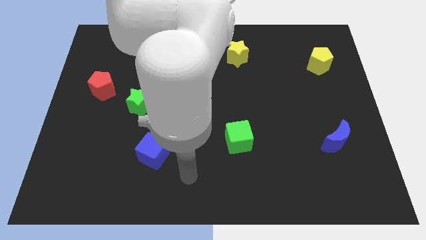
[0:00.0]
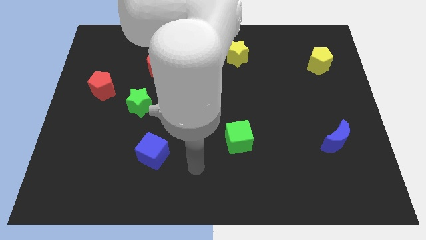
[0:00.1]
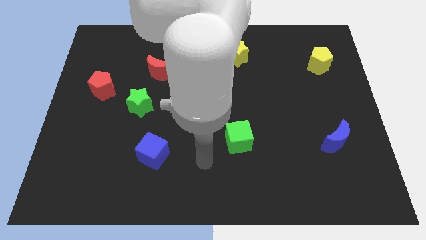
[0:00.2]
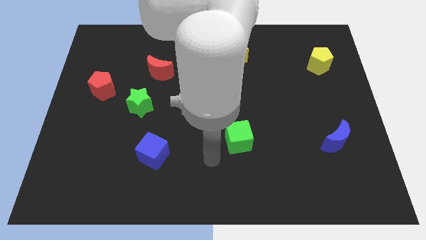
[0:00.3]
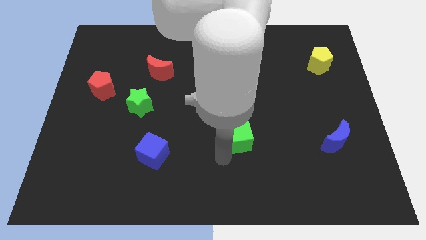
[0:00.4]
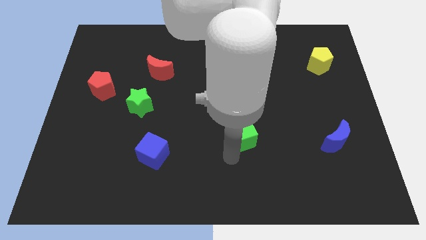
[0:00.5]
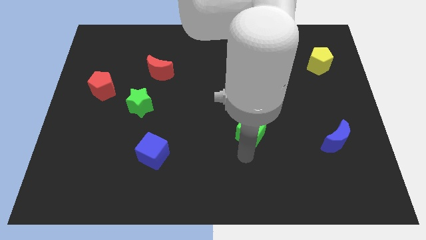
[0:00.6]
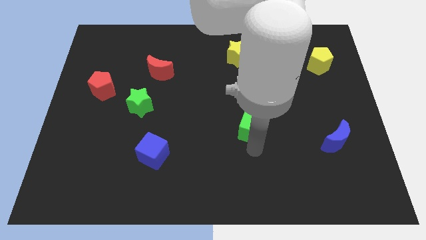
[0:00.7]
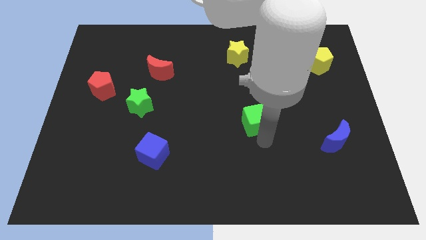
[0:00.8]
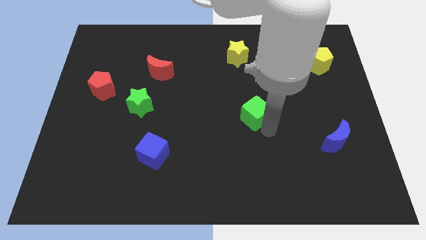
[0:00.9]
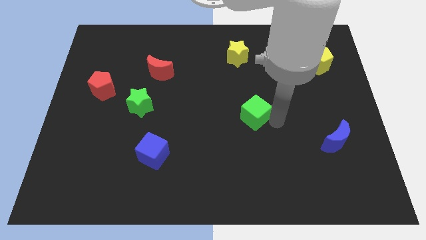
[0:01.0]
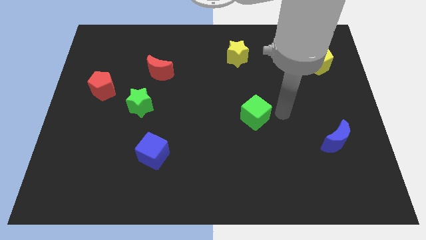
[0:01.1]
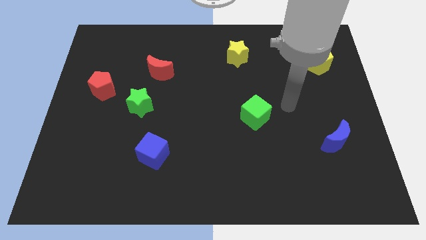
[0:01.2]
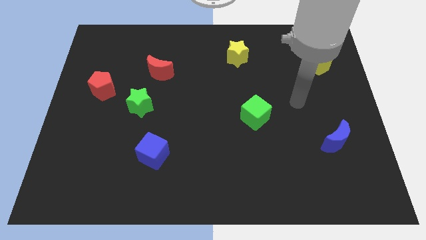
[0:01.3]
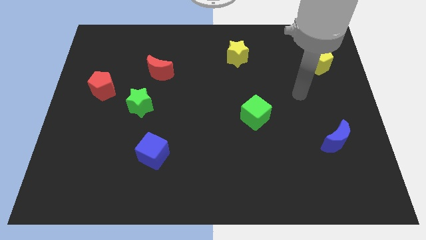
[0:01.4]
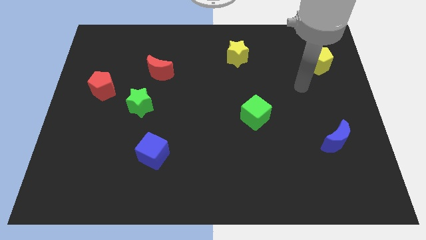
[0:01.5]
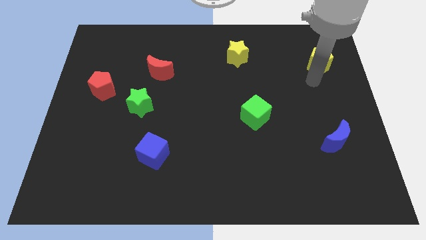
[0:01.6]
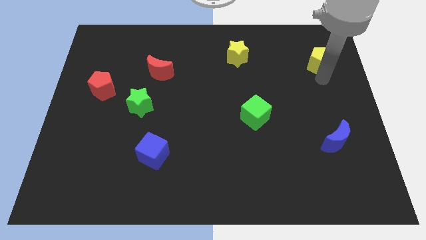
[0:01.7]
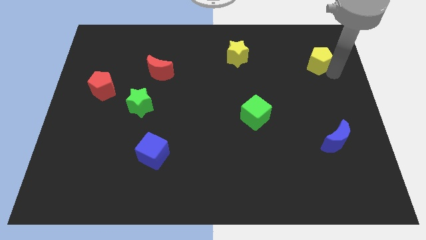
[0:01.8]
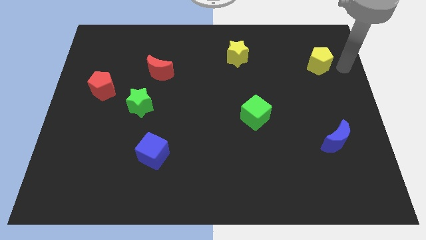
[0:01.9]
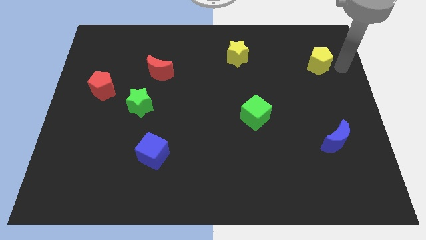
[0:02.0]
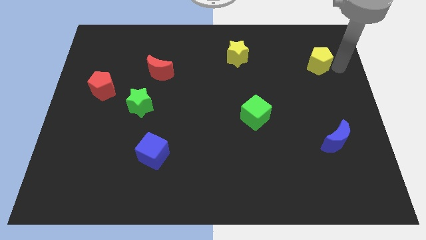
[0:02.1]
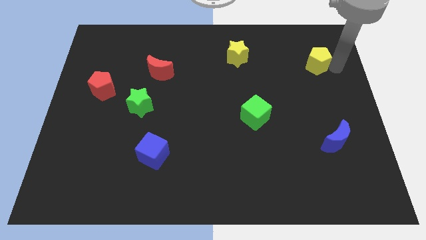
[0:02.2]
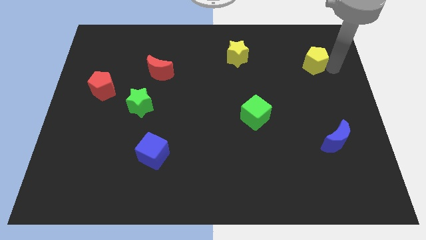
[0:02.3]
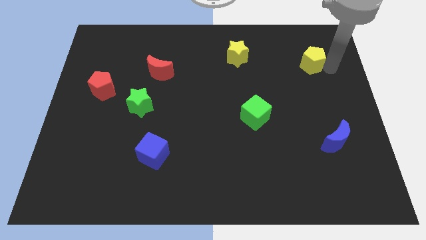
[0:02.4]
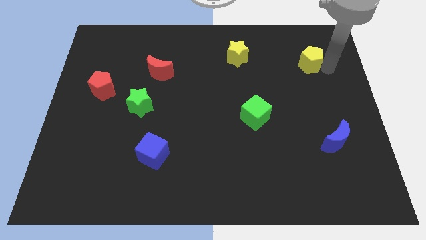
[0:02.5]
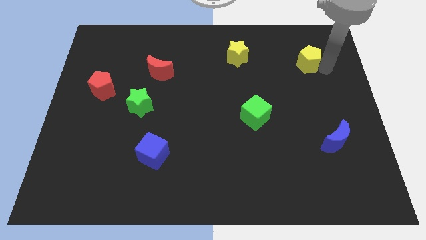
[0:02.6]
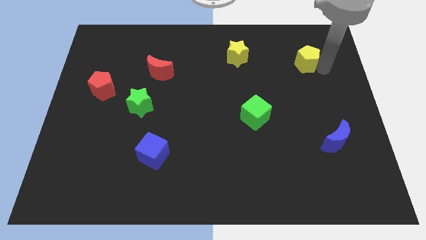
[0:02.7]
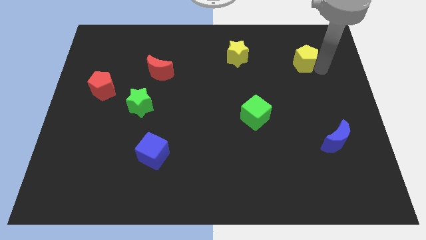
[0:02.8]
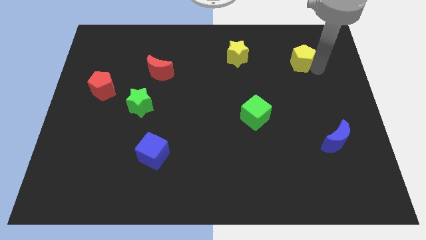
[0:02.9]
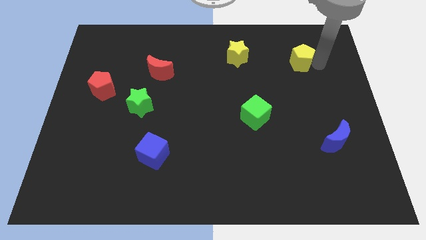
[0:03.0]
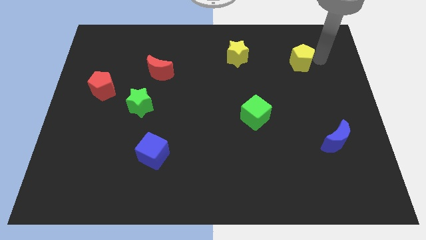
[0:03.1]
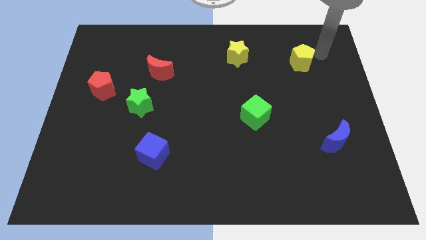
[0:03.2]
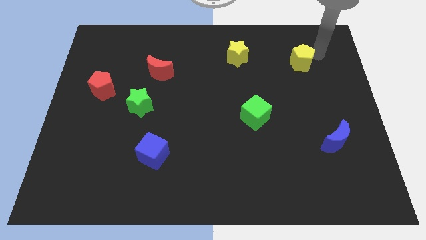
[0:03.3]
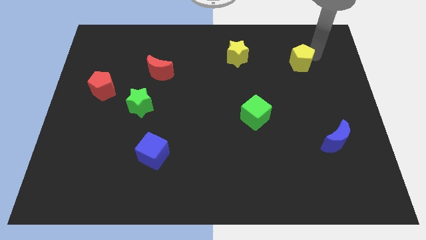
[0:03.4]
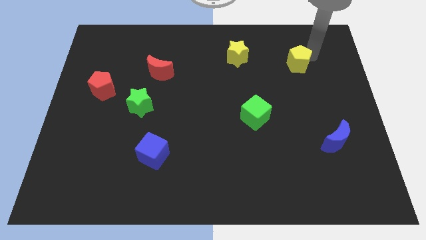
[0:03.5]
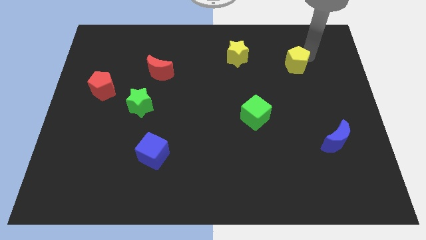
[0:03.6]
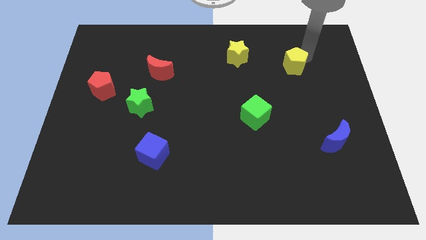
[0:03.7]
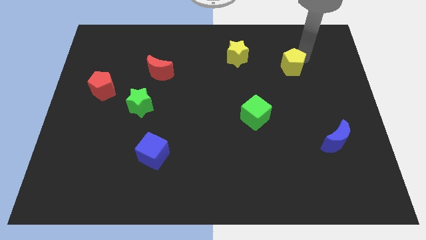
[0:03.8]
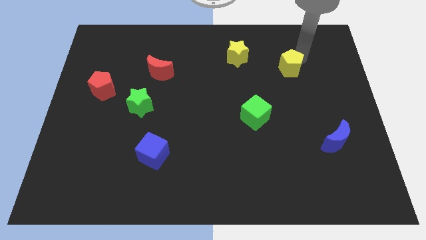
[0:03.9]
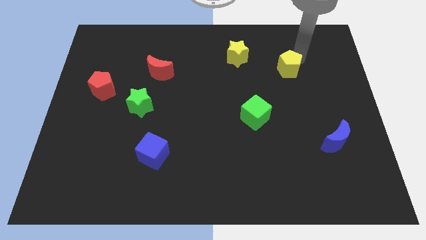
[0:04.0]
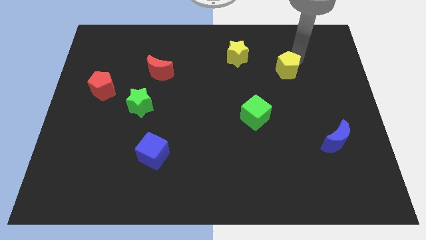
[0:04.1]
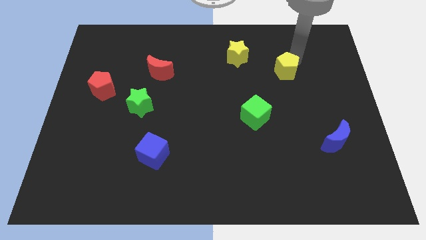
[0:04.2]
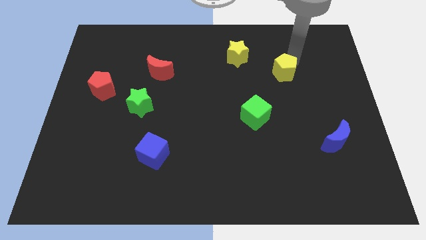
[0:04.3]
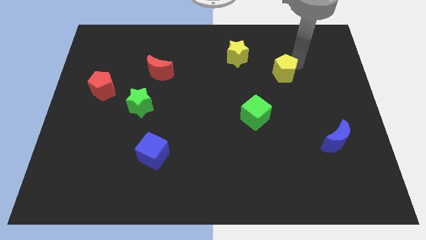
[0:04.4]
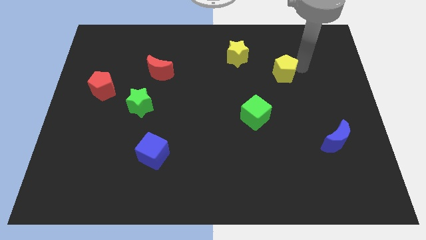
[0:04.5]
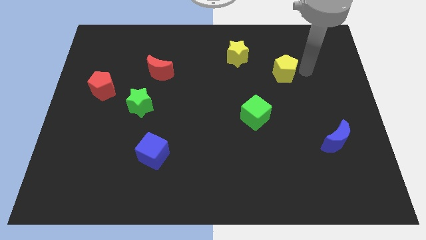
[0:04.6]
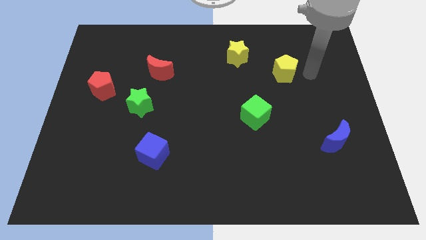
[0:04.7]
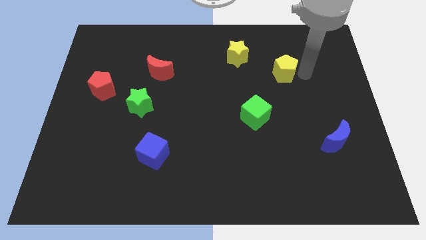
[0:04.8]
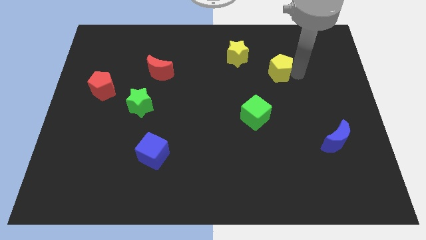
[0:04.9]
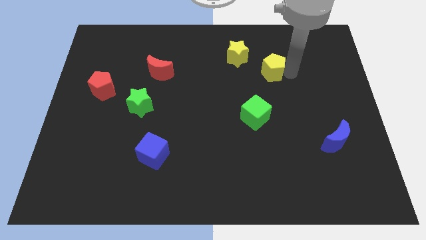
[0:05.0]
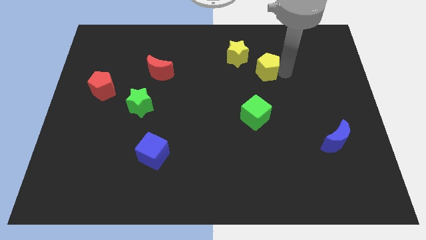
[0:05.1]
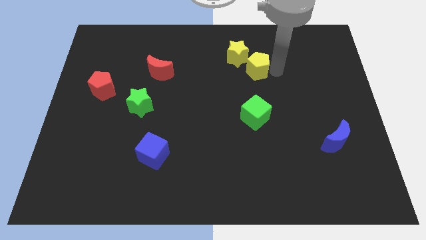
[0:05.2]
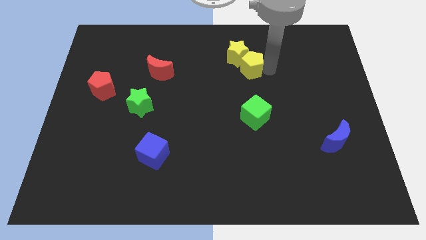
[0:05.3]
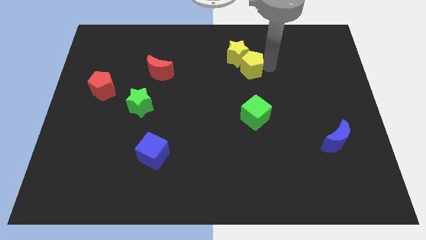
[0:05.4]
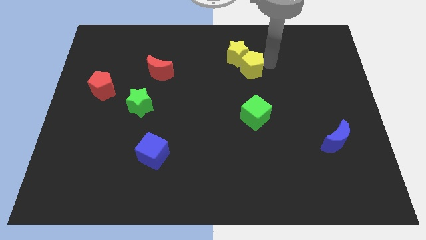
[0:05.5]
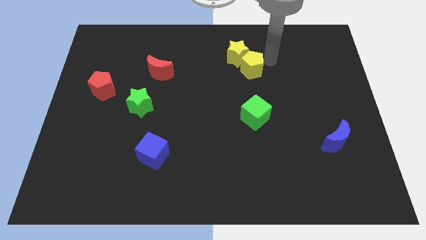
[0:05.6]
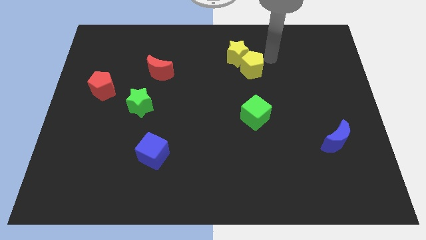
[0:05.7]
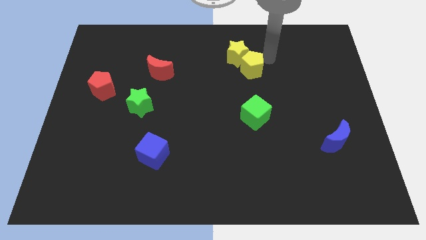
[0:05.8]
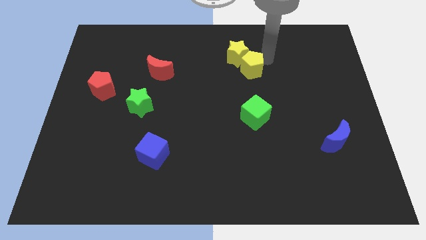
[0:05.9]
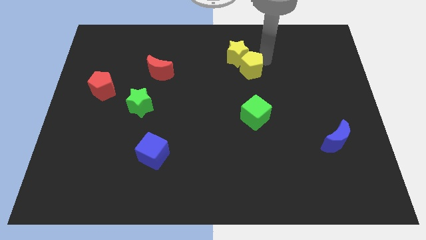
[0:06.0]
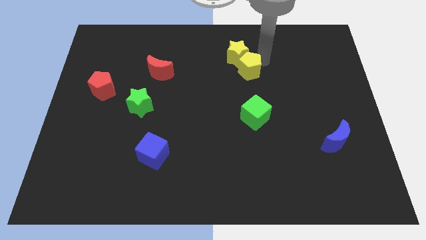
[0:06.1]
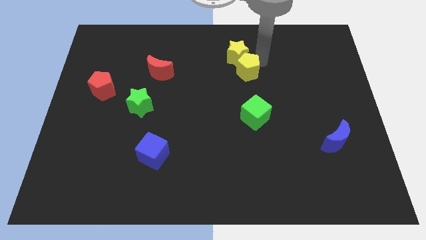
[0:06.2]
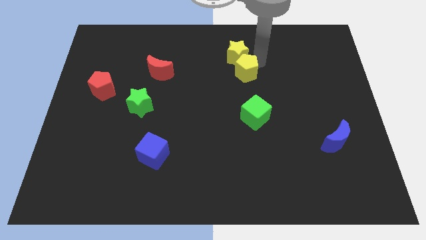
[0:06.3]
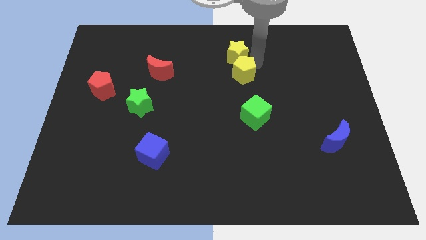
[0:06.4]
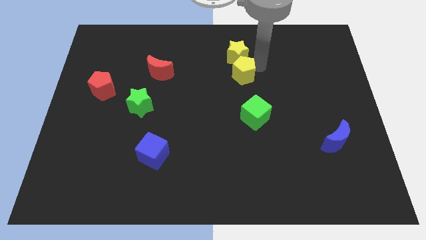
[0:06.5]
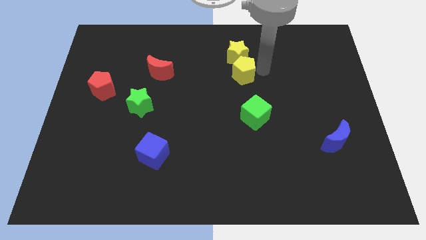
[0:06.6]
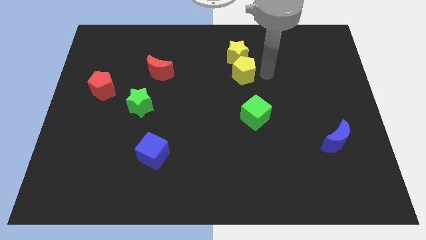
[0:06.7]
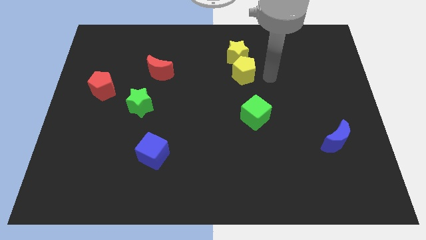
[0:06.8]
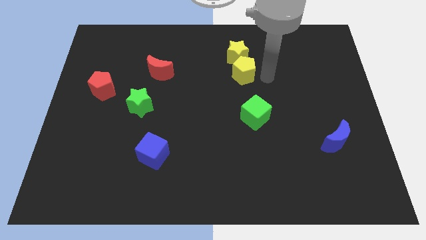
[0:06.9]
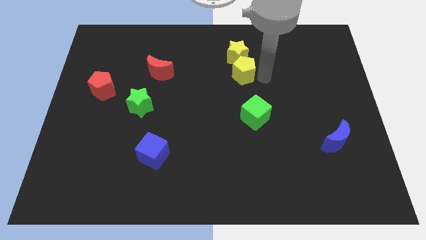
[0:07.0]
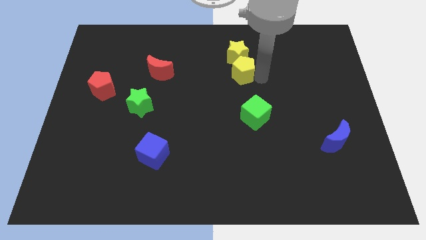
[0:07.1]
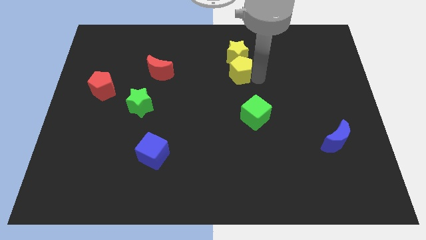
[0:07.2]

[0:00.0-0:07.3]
push the yellow pentagon left

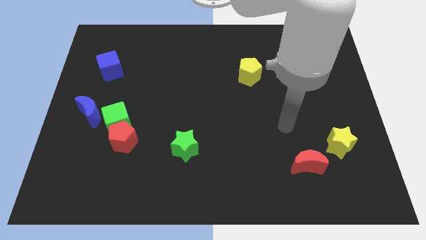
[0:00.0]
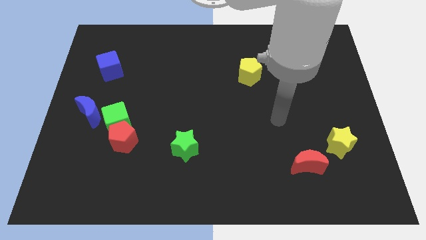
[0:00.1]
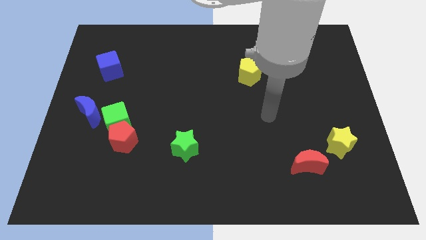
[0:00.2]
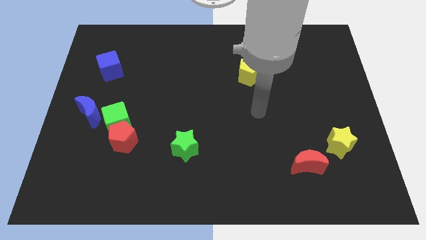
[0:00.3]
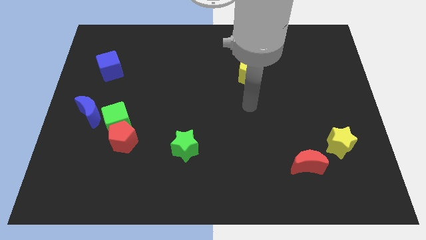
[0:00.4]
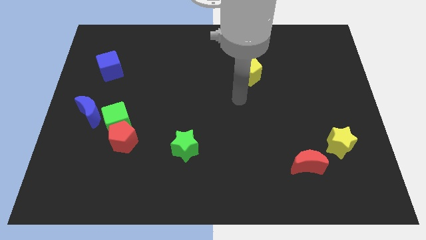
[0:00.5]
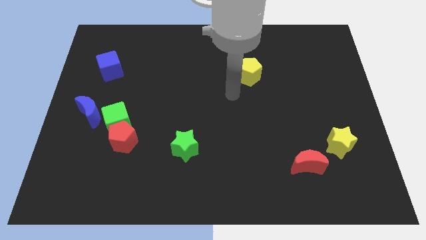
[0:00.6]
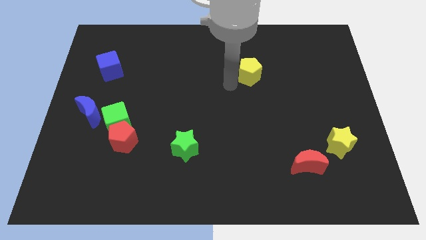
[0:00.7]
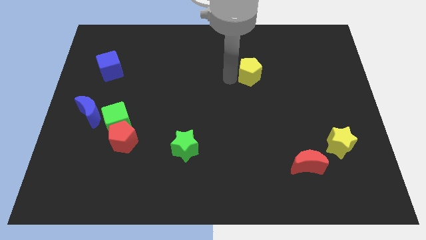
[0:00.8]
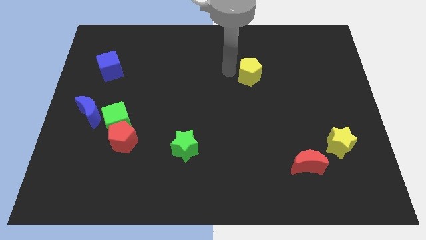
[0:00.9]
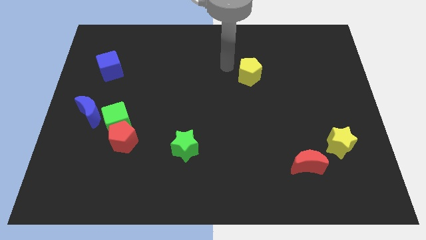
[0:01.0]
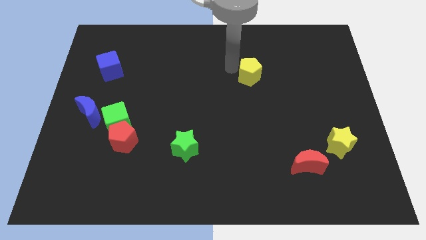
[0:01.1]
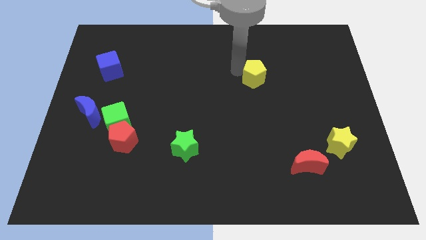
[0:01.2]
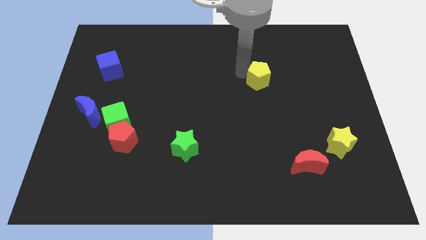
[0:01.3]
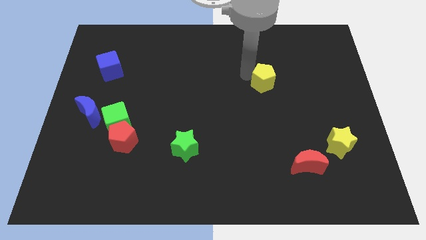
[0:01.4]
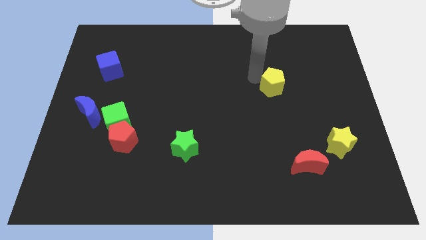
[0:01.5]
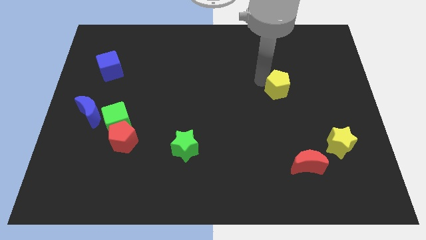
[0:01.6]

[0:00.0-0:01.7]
push the yellow pentagon diagonally down and to the right slightly
